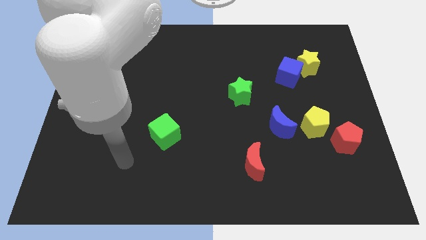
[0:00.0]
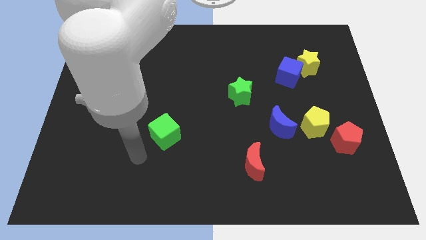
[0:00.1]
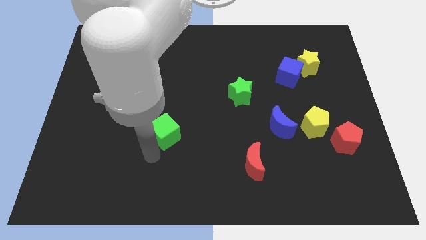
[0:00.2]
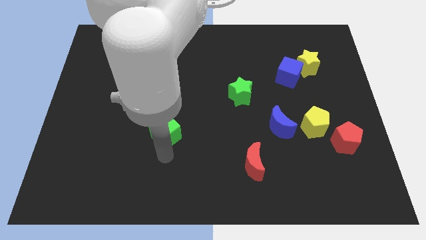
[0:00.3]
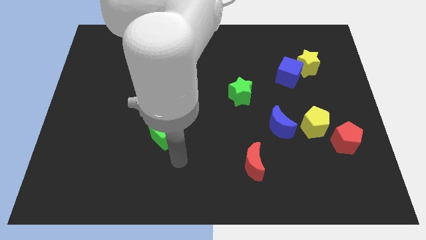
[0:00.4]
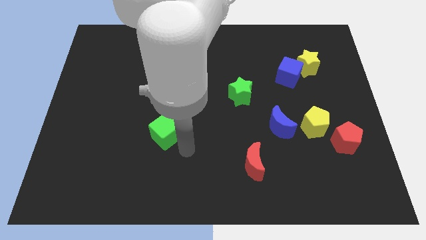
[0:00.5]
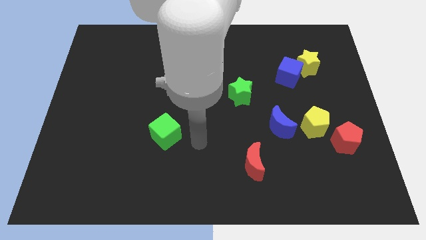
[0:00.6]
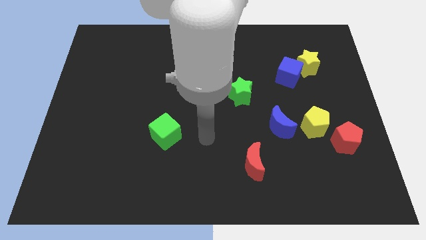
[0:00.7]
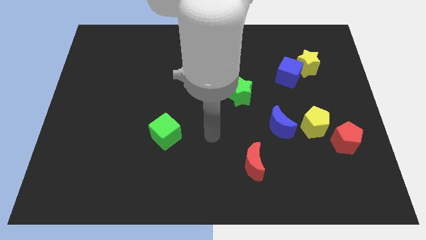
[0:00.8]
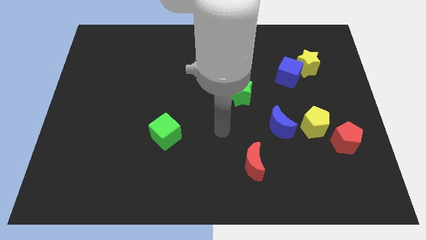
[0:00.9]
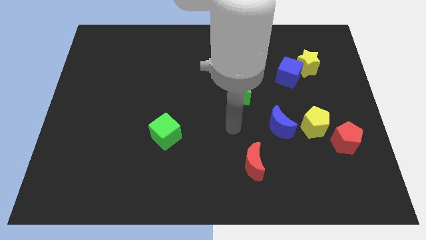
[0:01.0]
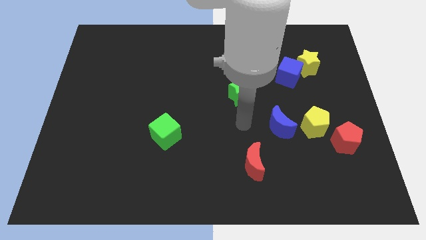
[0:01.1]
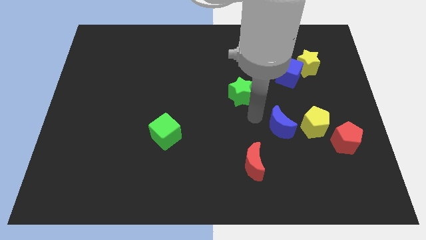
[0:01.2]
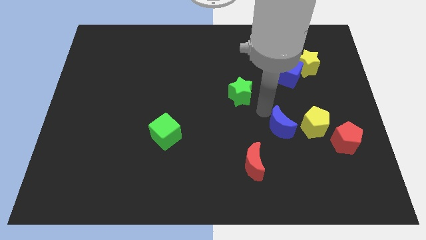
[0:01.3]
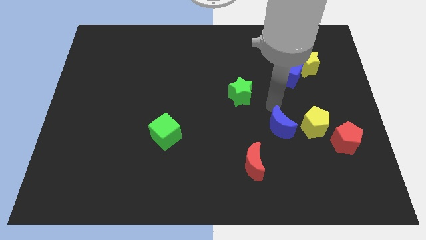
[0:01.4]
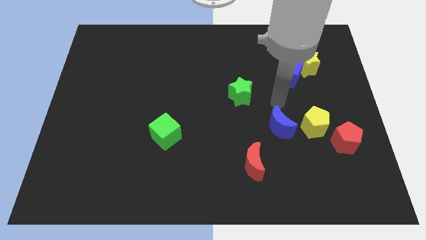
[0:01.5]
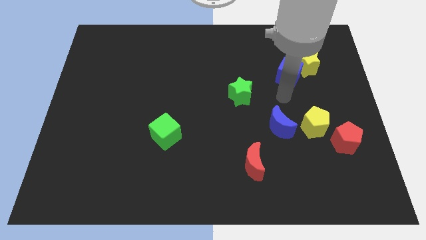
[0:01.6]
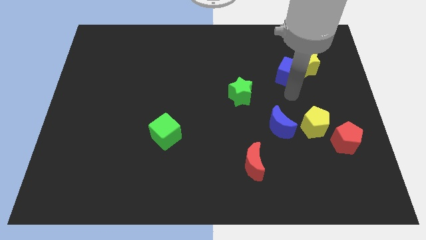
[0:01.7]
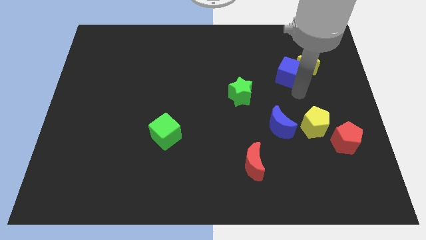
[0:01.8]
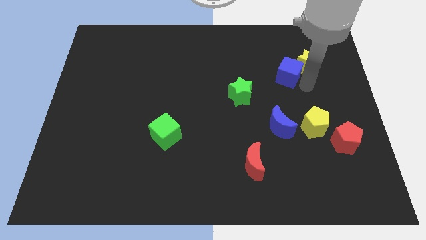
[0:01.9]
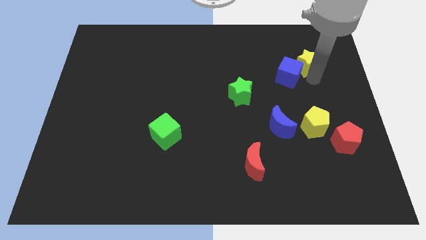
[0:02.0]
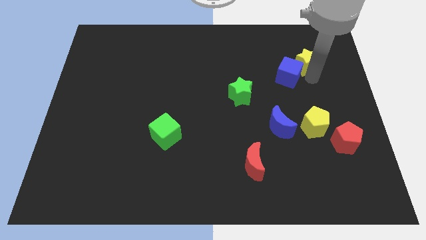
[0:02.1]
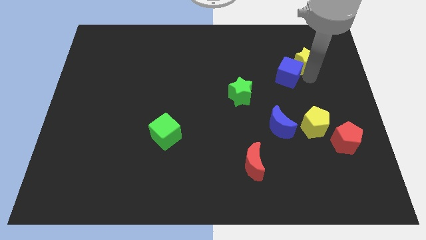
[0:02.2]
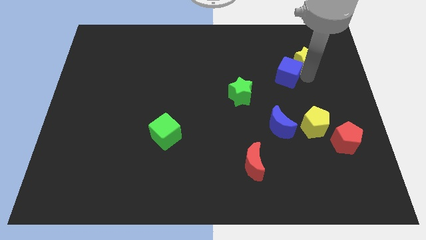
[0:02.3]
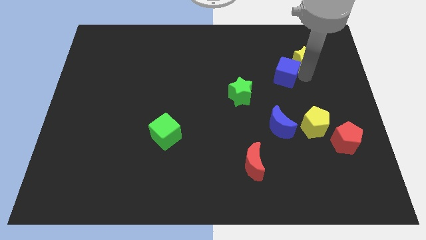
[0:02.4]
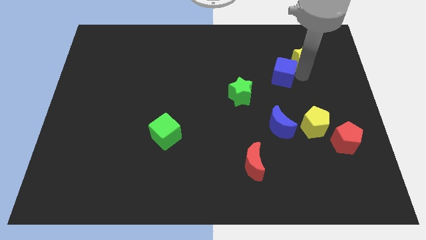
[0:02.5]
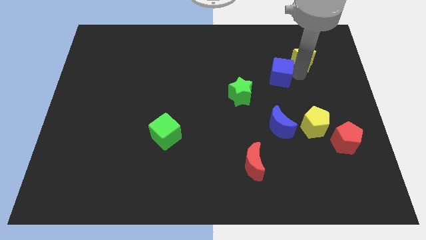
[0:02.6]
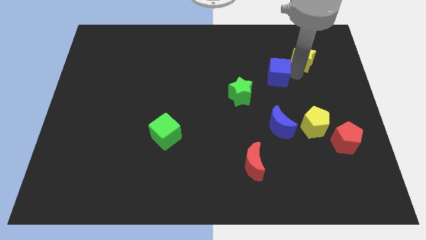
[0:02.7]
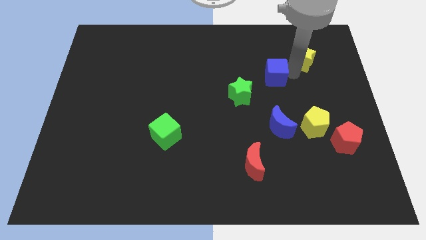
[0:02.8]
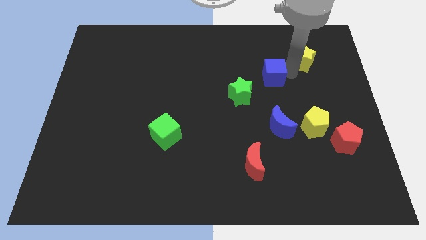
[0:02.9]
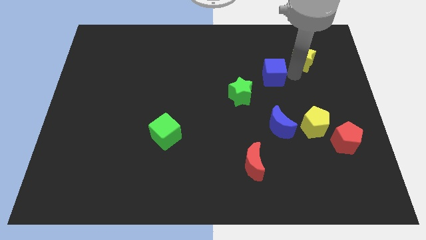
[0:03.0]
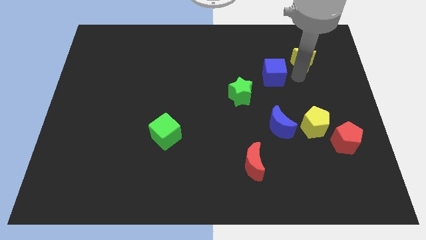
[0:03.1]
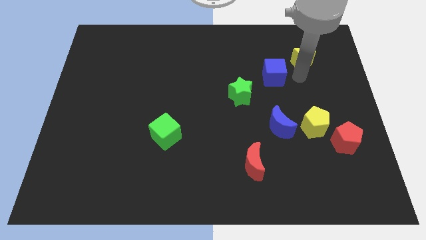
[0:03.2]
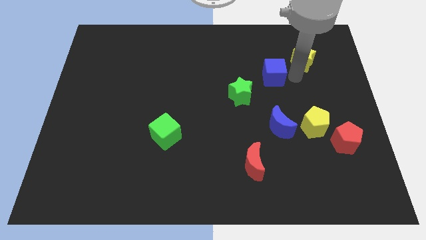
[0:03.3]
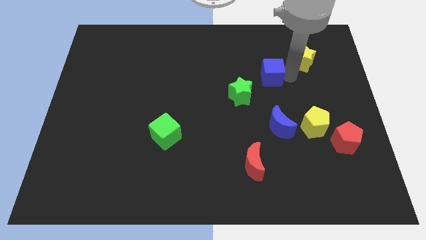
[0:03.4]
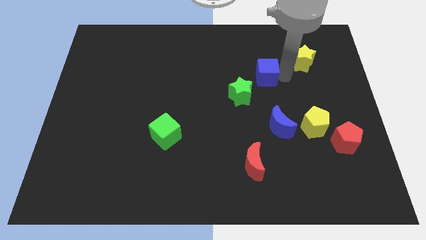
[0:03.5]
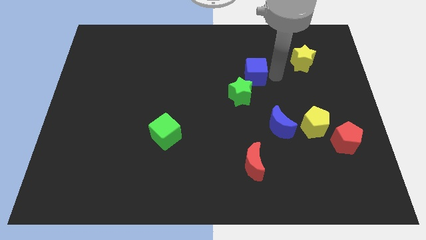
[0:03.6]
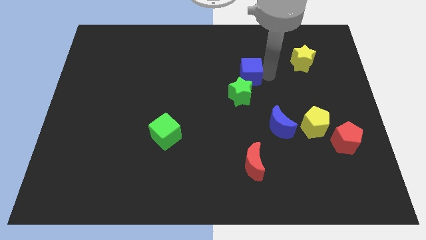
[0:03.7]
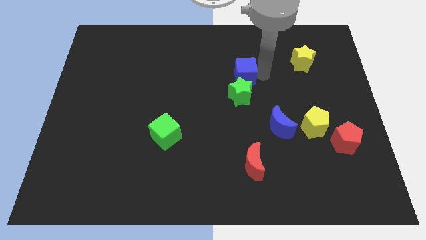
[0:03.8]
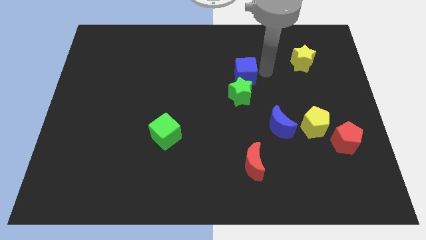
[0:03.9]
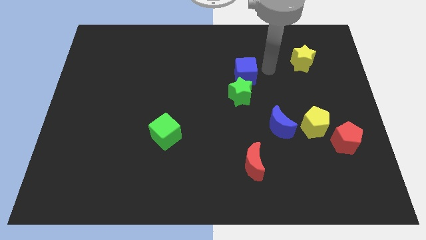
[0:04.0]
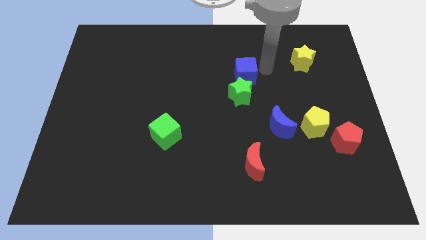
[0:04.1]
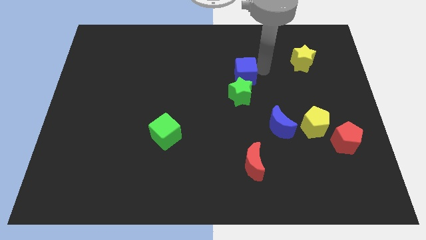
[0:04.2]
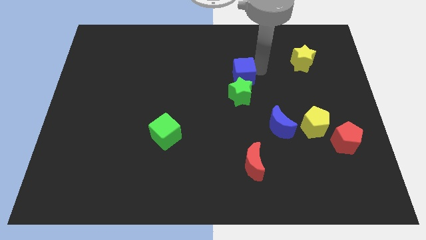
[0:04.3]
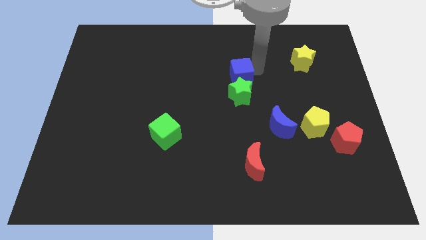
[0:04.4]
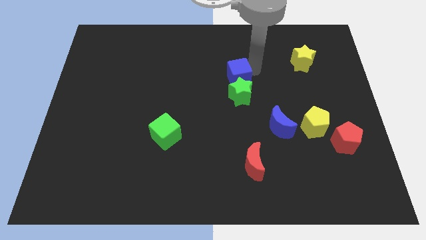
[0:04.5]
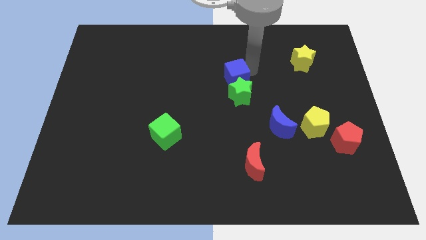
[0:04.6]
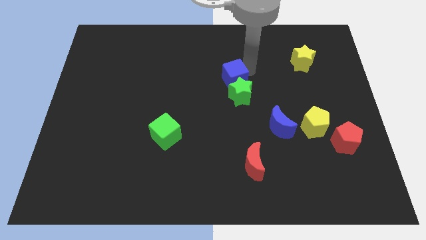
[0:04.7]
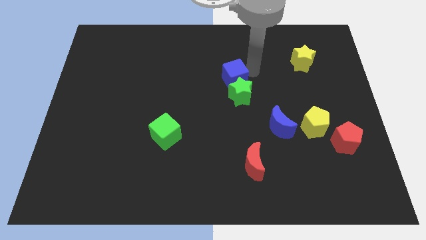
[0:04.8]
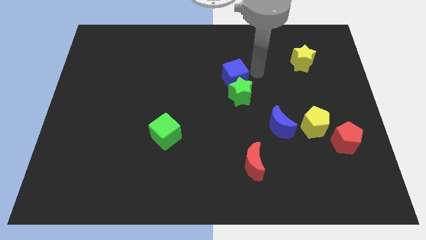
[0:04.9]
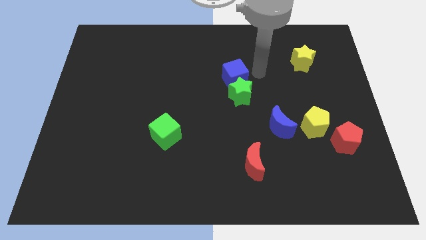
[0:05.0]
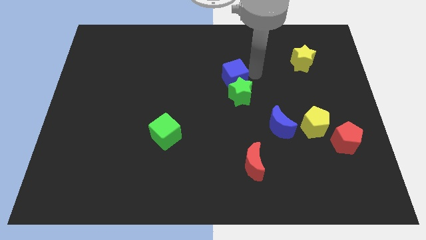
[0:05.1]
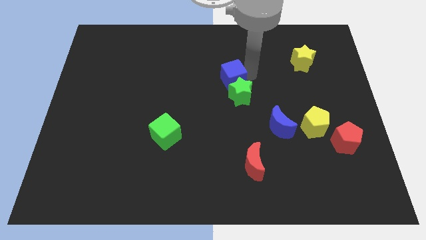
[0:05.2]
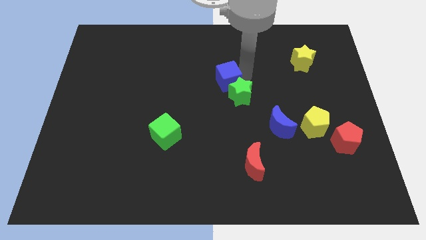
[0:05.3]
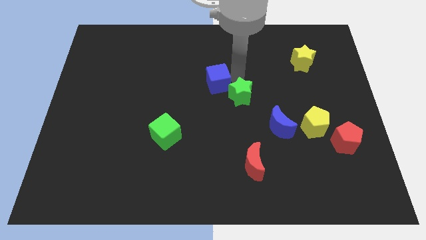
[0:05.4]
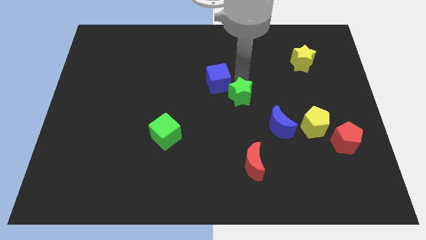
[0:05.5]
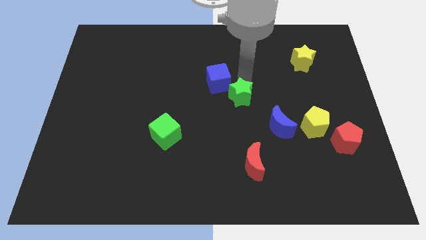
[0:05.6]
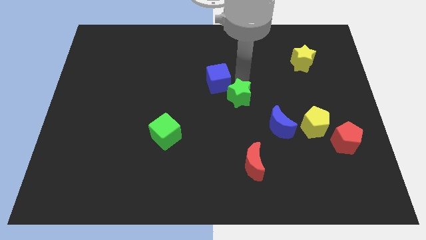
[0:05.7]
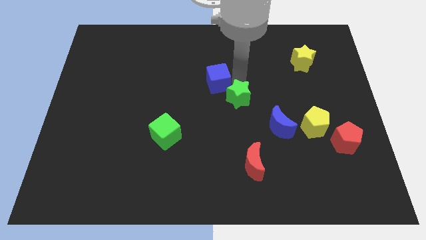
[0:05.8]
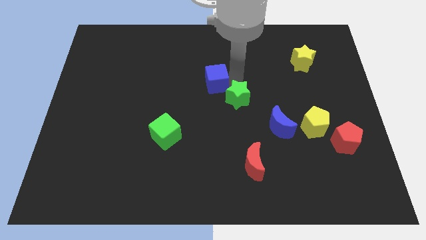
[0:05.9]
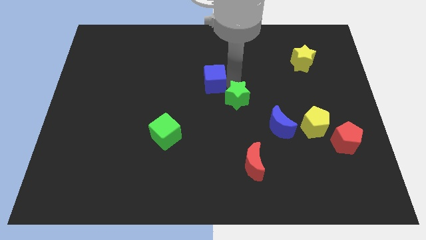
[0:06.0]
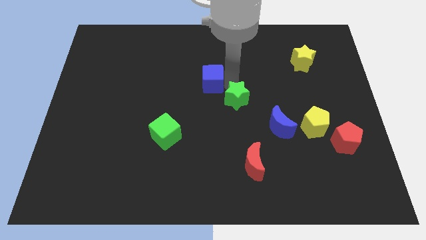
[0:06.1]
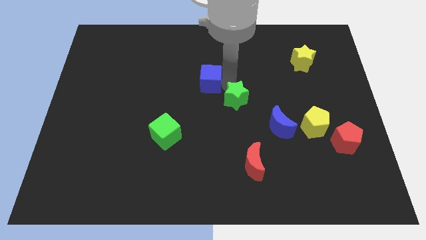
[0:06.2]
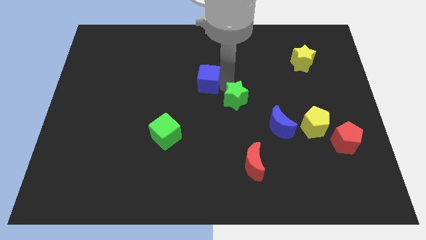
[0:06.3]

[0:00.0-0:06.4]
move the blue cube left

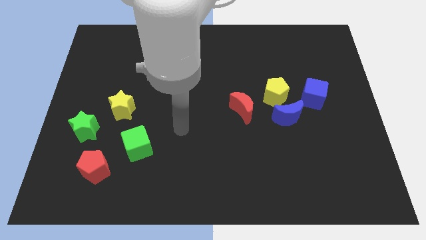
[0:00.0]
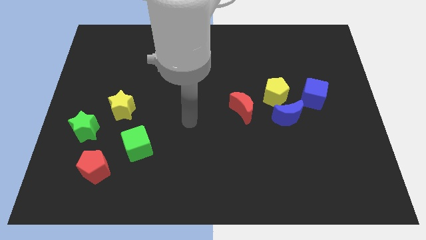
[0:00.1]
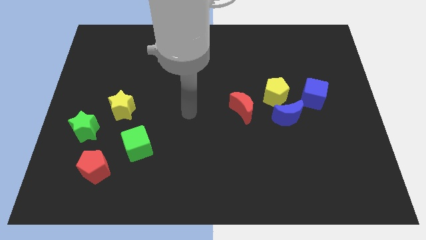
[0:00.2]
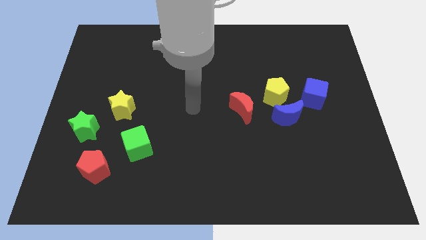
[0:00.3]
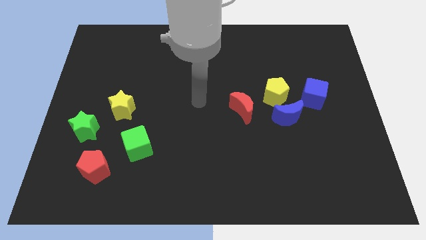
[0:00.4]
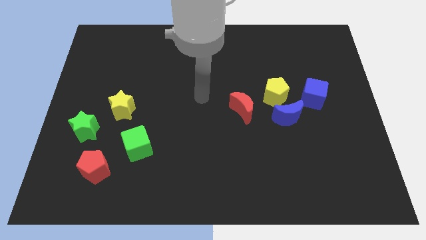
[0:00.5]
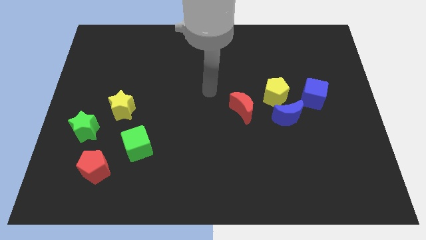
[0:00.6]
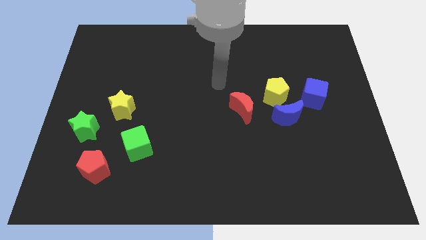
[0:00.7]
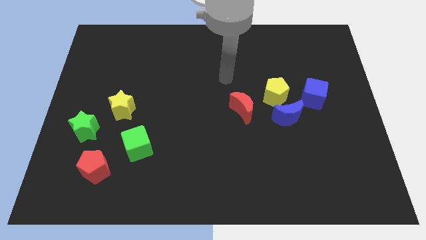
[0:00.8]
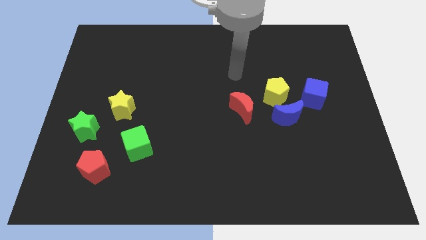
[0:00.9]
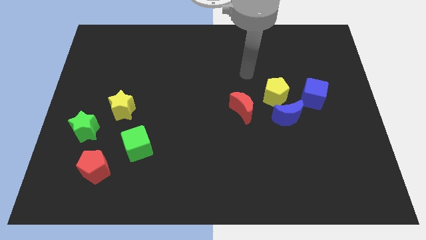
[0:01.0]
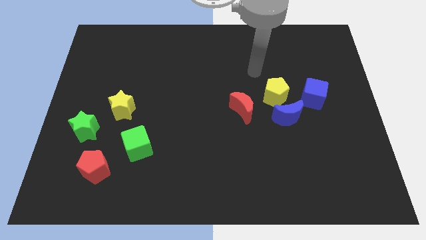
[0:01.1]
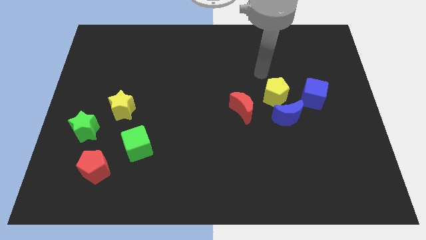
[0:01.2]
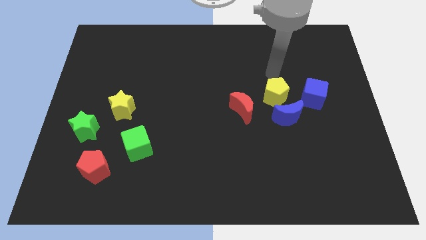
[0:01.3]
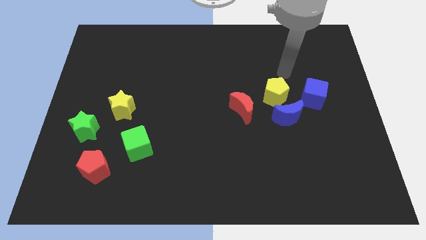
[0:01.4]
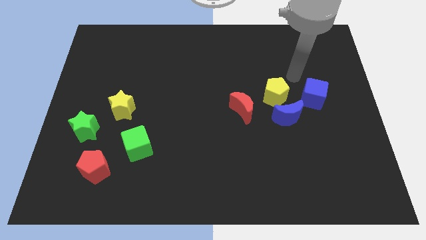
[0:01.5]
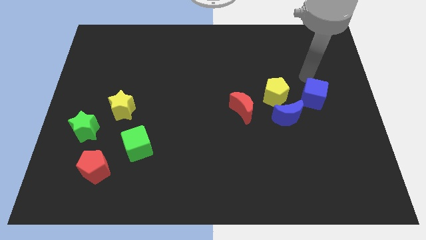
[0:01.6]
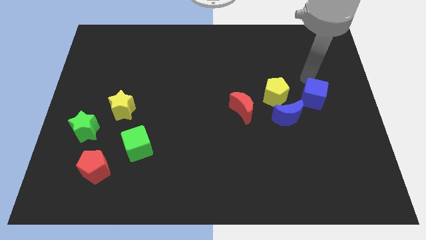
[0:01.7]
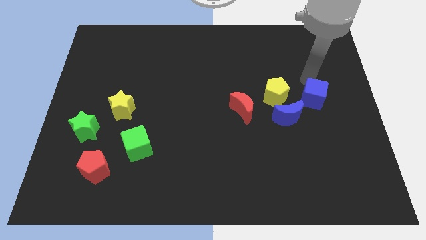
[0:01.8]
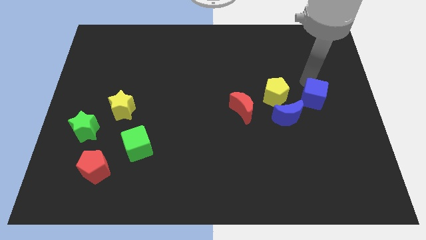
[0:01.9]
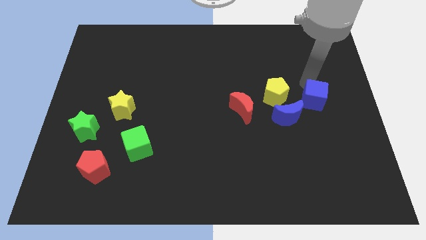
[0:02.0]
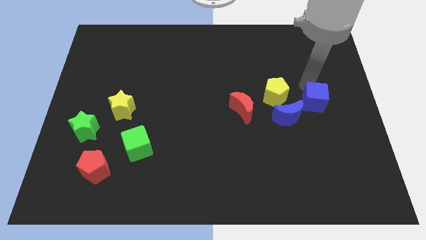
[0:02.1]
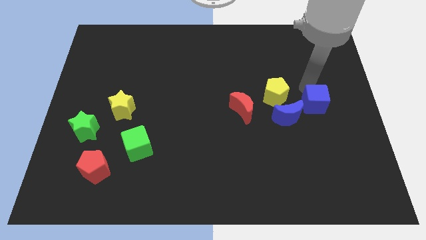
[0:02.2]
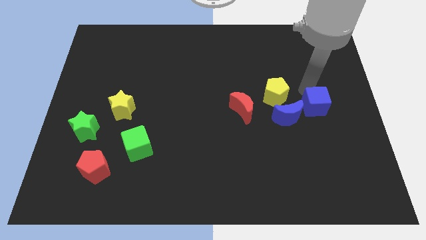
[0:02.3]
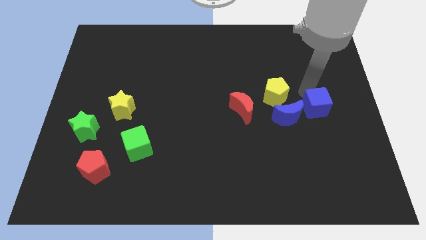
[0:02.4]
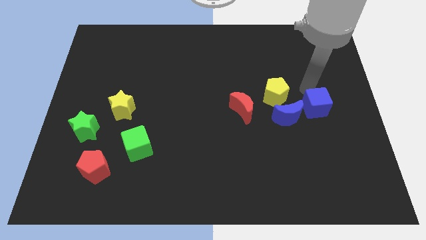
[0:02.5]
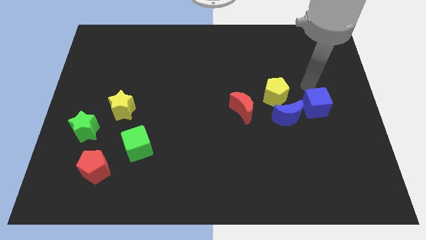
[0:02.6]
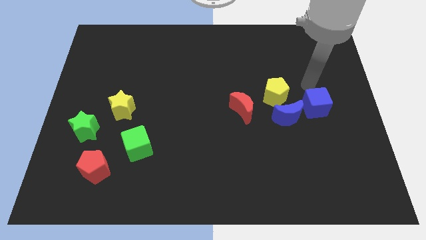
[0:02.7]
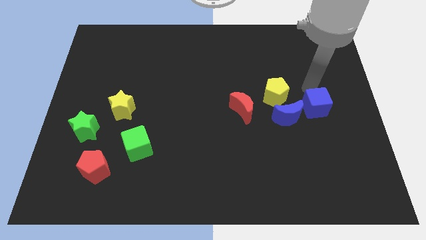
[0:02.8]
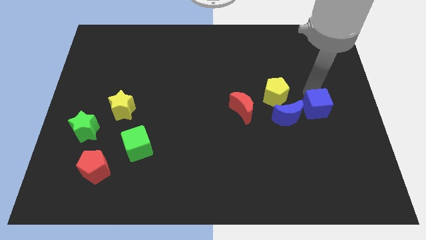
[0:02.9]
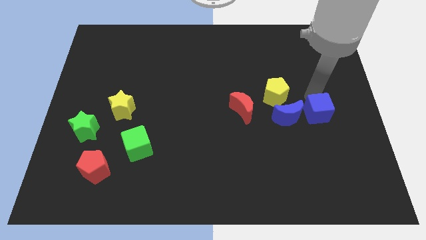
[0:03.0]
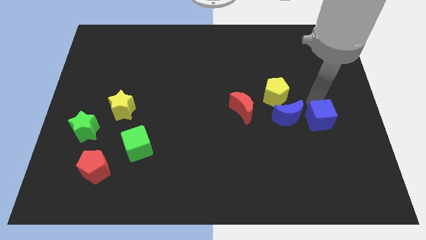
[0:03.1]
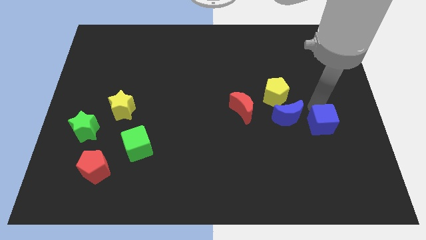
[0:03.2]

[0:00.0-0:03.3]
slightly push the blue cube downwards
